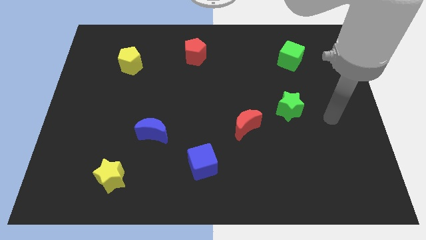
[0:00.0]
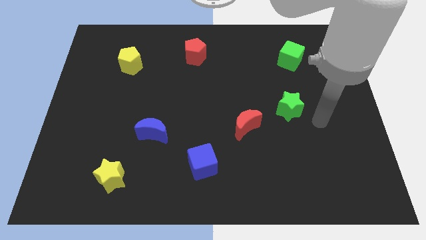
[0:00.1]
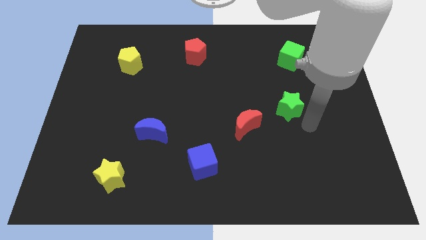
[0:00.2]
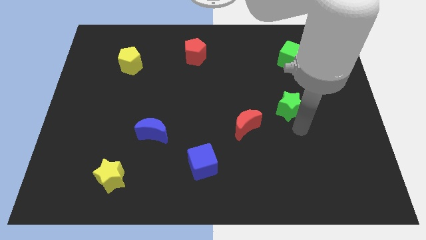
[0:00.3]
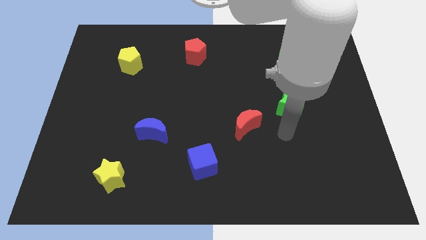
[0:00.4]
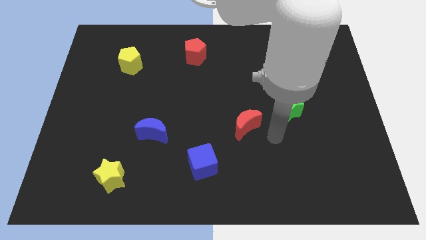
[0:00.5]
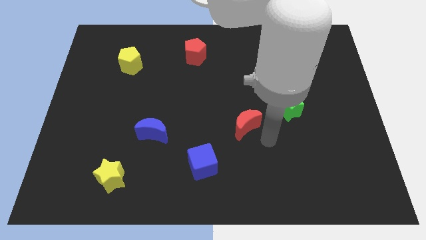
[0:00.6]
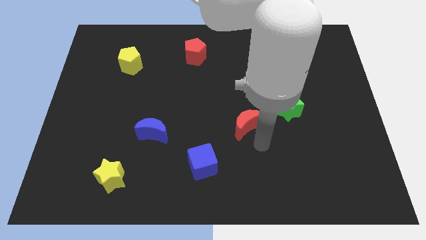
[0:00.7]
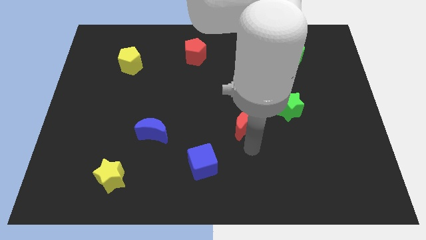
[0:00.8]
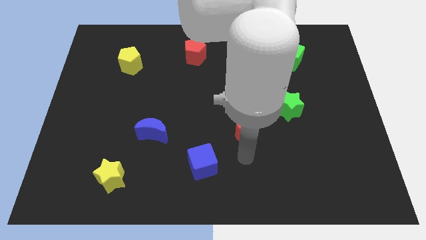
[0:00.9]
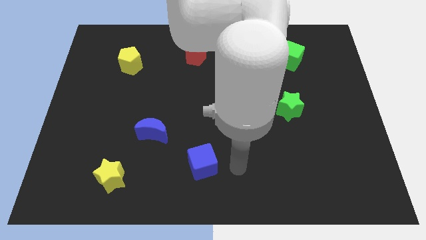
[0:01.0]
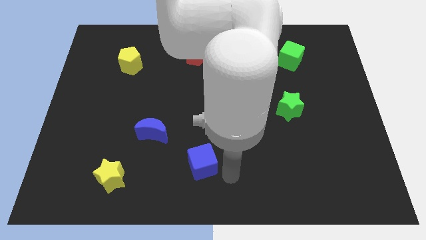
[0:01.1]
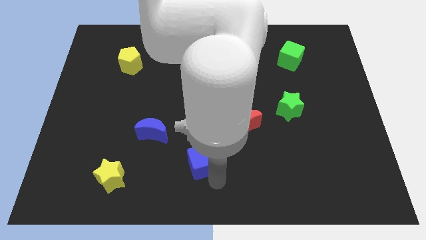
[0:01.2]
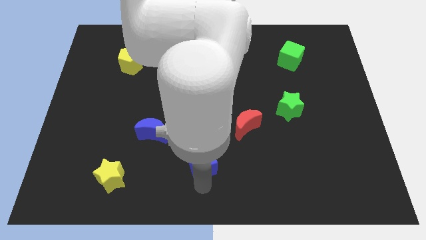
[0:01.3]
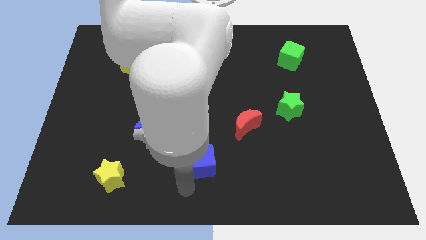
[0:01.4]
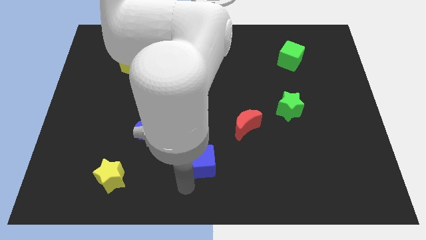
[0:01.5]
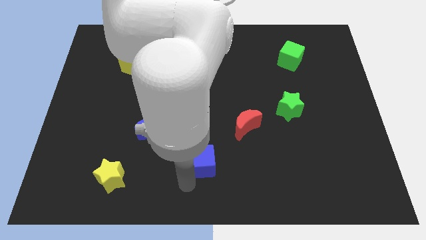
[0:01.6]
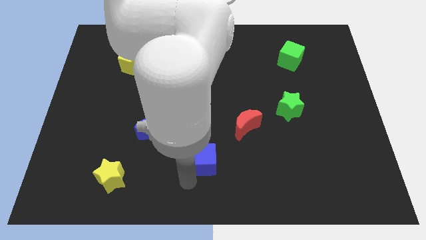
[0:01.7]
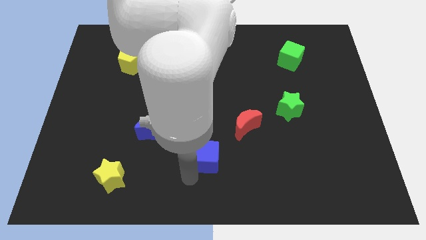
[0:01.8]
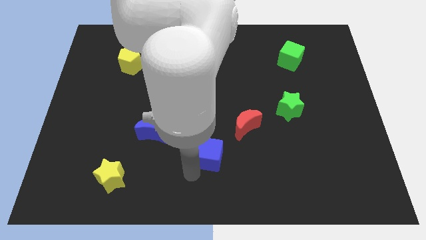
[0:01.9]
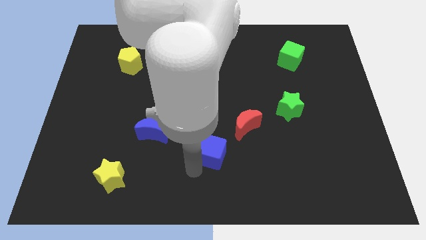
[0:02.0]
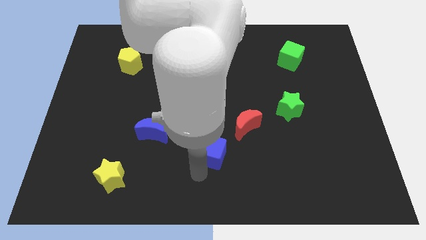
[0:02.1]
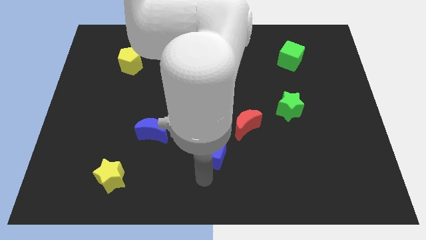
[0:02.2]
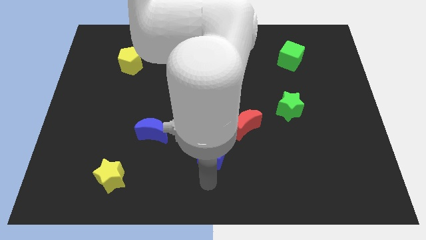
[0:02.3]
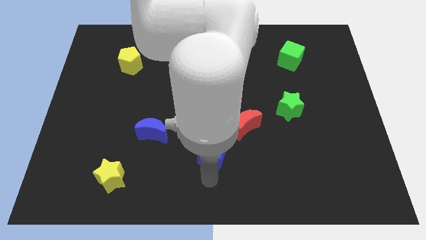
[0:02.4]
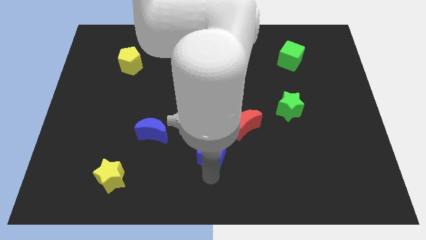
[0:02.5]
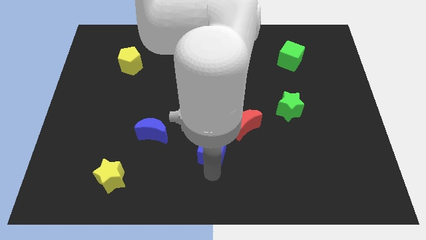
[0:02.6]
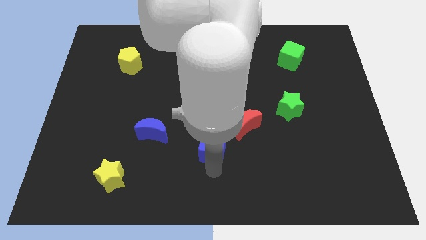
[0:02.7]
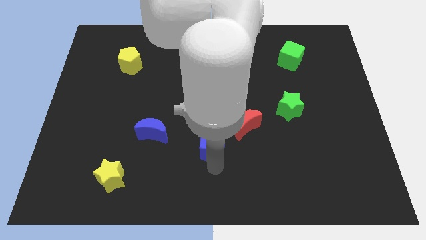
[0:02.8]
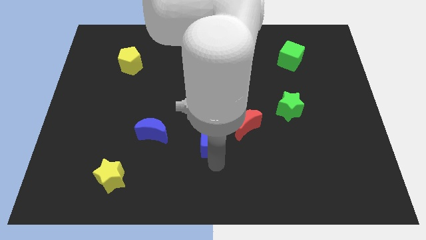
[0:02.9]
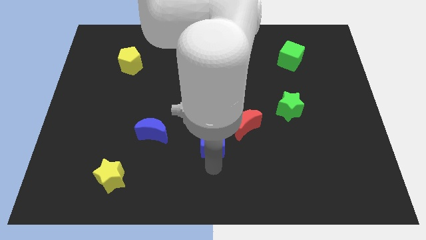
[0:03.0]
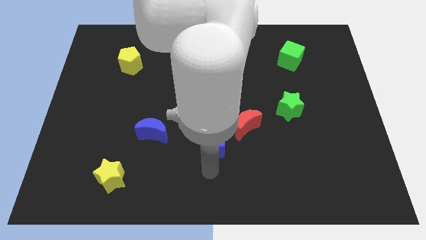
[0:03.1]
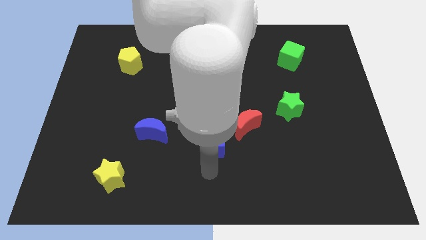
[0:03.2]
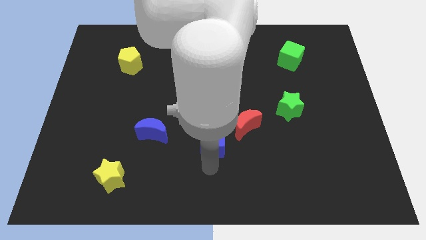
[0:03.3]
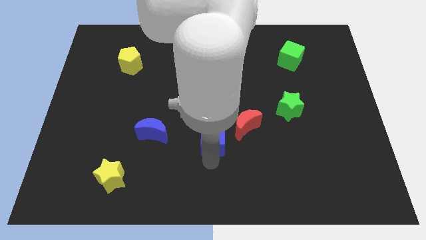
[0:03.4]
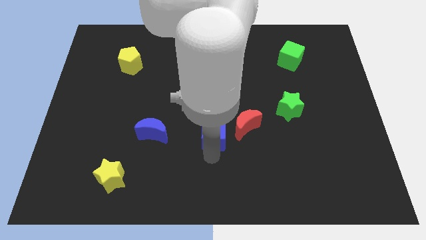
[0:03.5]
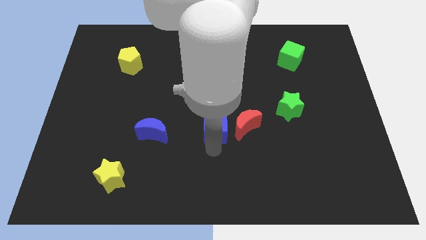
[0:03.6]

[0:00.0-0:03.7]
slide the blue cube upwards slightly

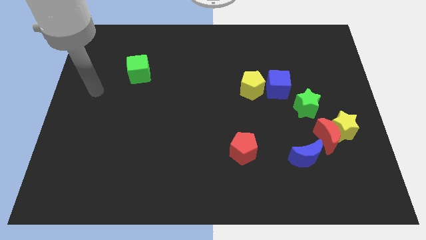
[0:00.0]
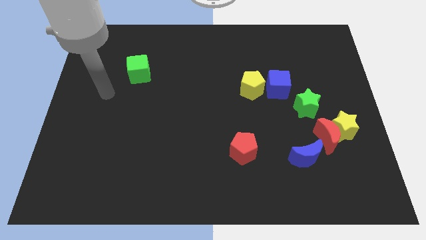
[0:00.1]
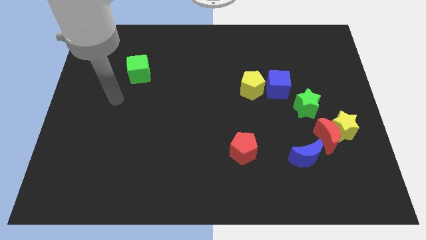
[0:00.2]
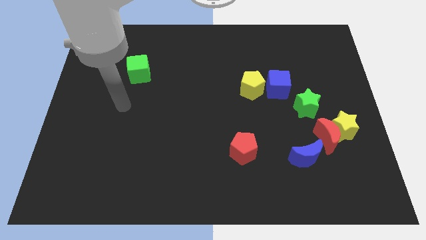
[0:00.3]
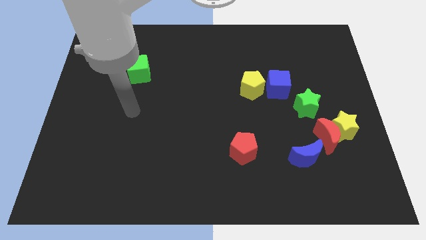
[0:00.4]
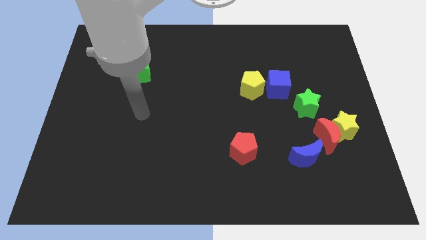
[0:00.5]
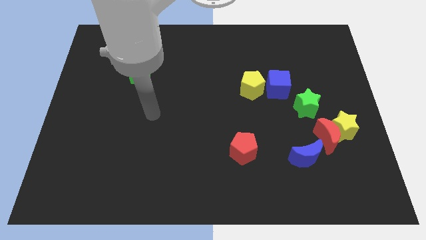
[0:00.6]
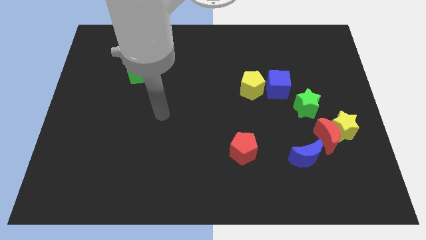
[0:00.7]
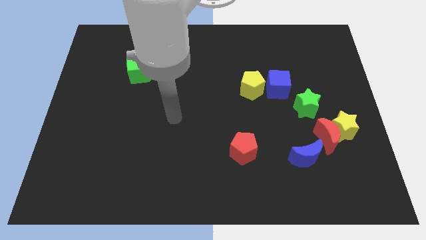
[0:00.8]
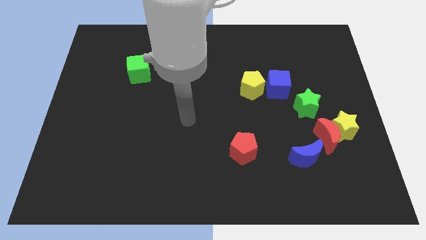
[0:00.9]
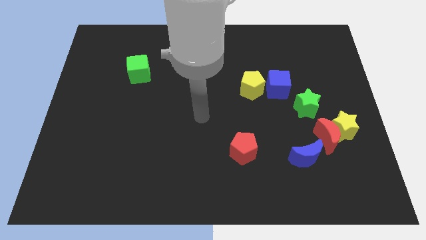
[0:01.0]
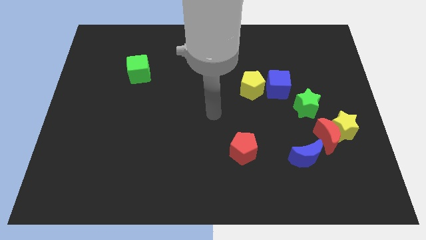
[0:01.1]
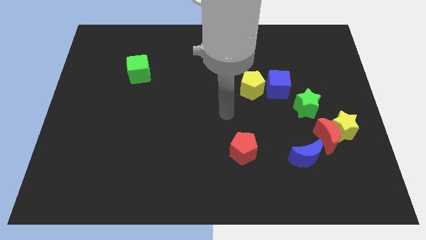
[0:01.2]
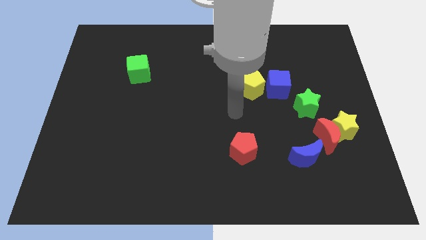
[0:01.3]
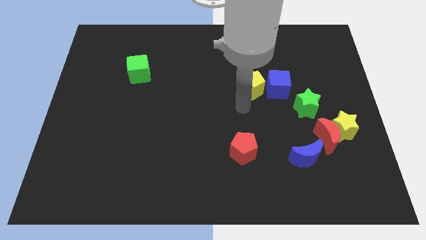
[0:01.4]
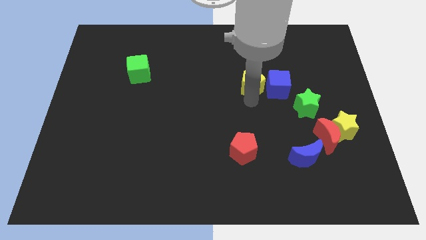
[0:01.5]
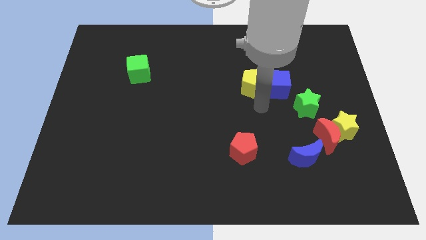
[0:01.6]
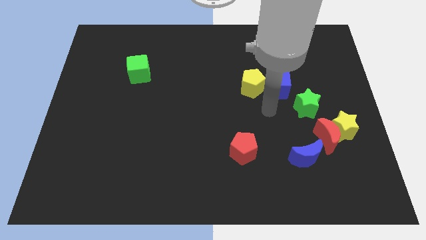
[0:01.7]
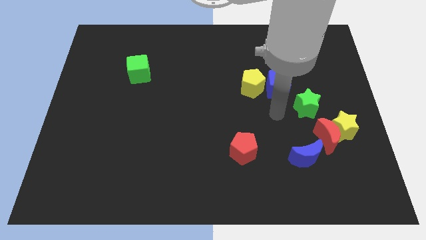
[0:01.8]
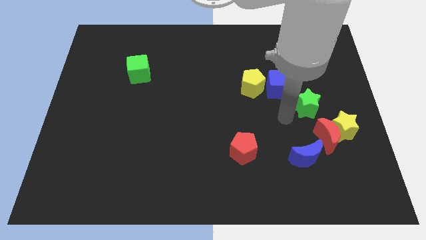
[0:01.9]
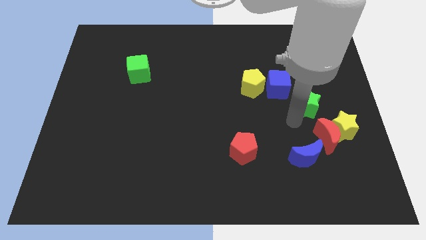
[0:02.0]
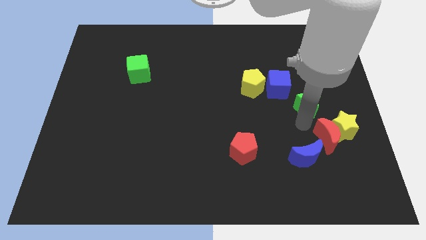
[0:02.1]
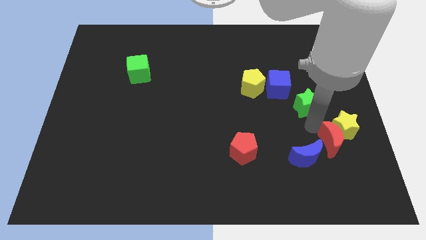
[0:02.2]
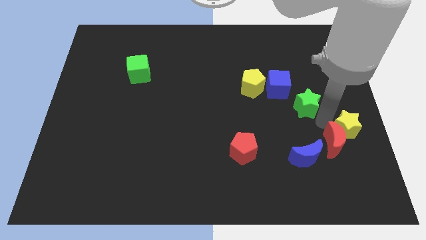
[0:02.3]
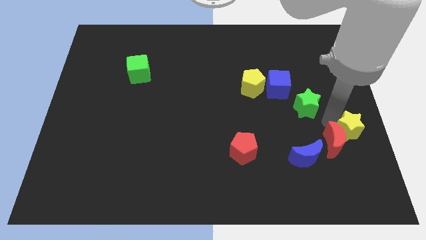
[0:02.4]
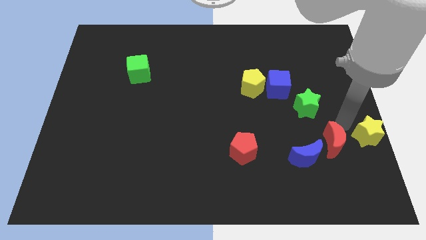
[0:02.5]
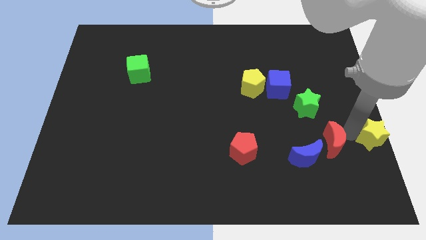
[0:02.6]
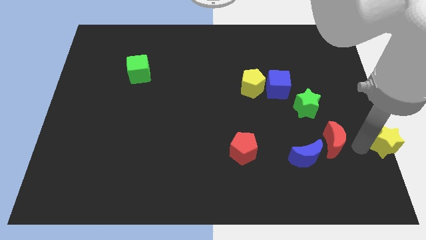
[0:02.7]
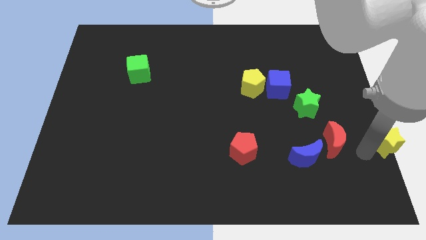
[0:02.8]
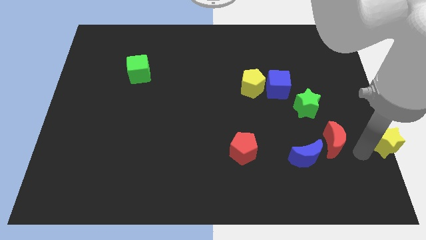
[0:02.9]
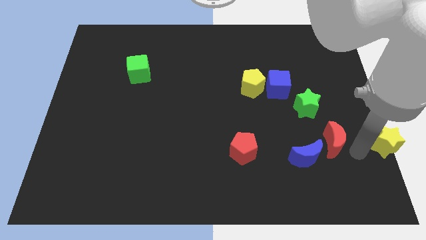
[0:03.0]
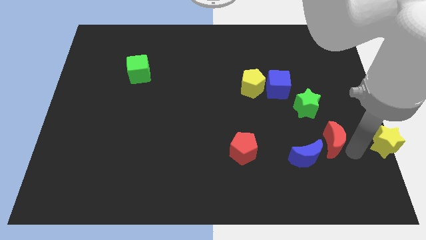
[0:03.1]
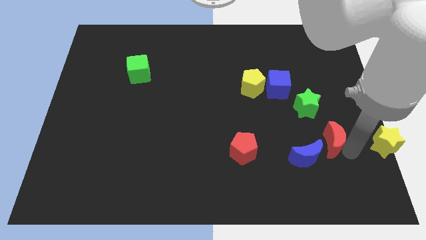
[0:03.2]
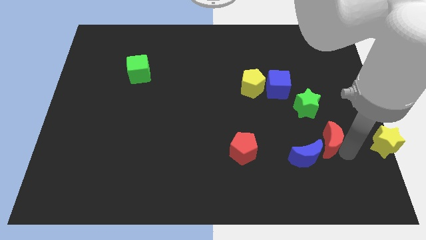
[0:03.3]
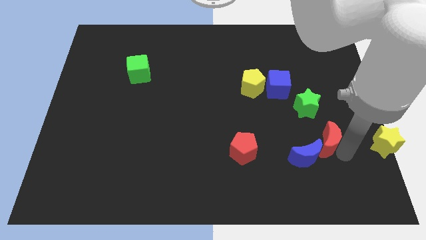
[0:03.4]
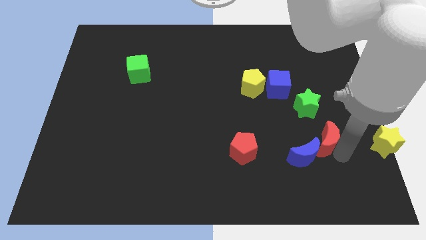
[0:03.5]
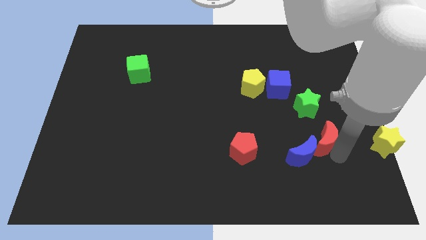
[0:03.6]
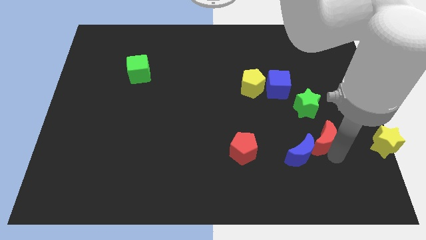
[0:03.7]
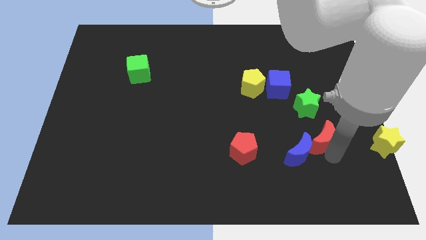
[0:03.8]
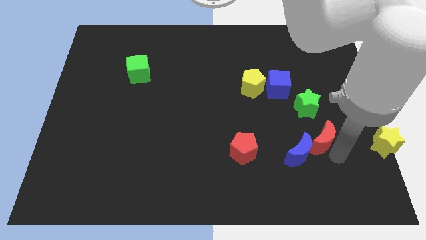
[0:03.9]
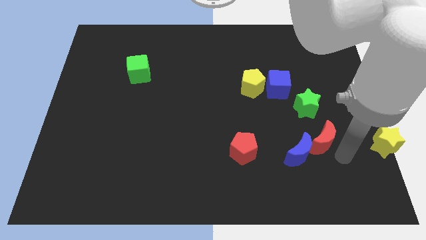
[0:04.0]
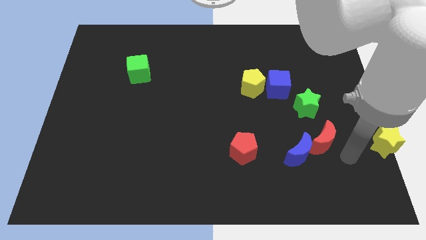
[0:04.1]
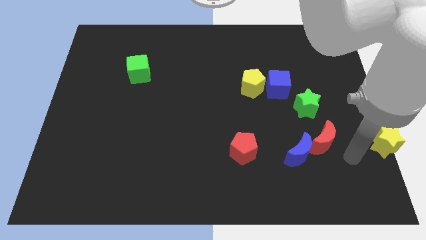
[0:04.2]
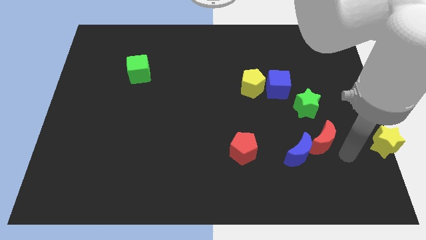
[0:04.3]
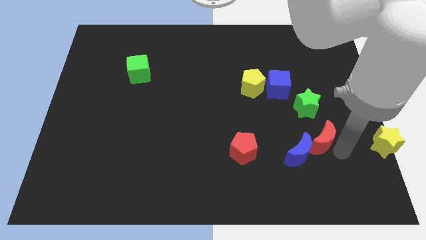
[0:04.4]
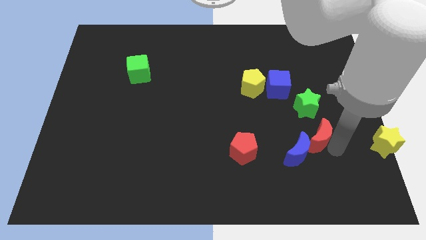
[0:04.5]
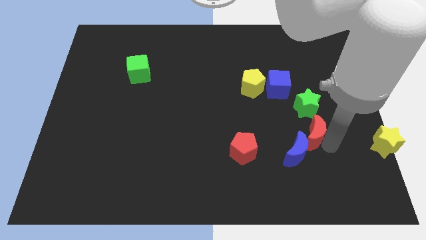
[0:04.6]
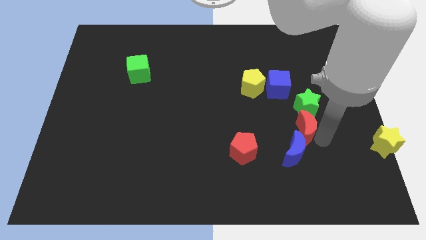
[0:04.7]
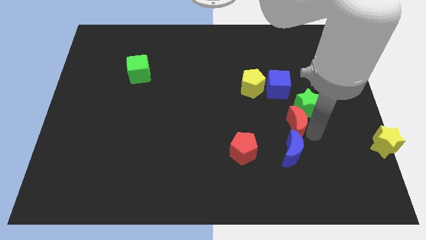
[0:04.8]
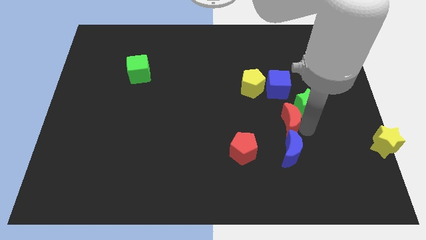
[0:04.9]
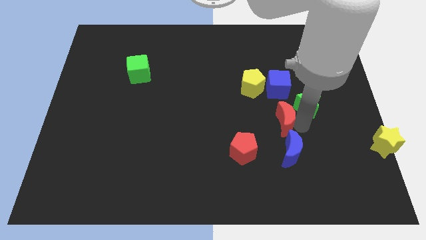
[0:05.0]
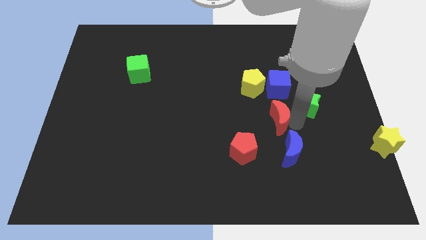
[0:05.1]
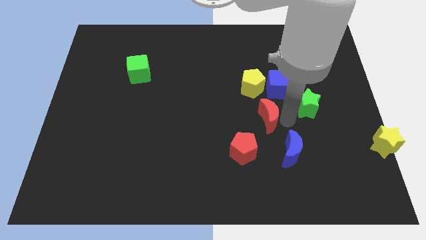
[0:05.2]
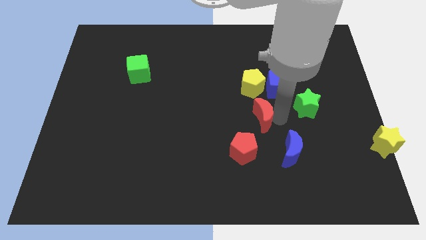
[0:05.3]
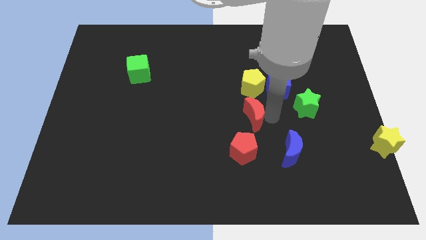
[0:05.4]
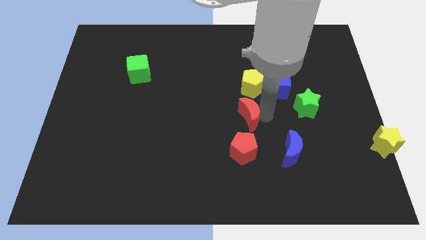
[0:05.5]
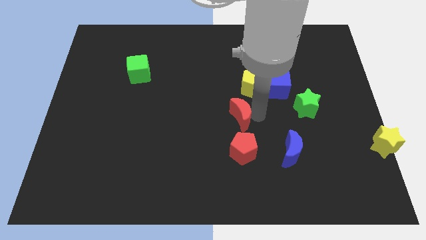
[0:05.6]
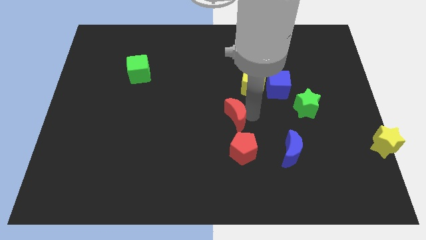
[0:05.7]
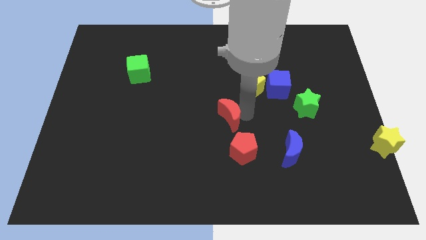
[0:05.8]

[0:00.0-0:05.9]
slide the red moon to the left
